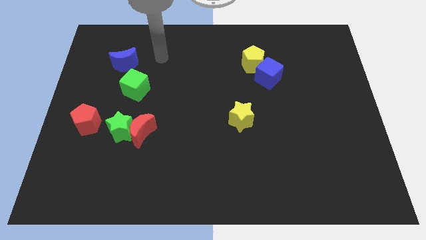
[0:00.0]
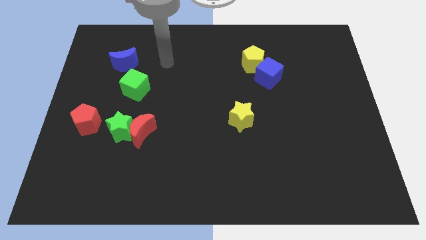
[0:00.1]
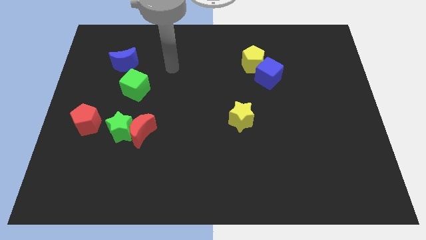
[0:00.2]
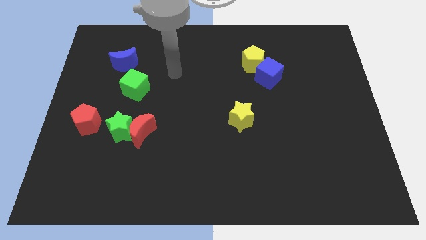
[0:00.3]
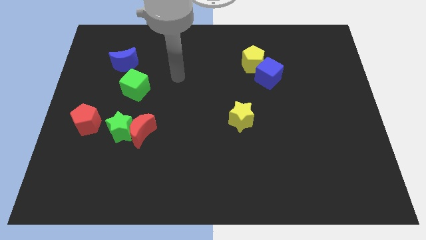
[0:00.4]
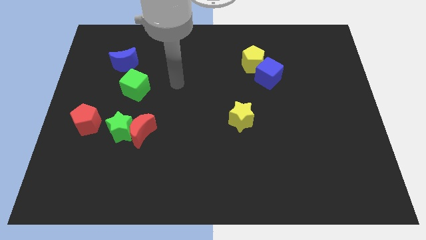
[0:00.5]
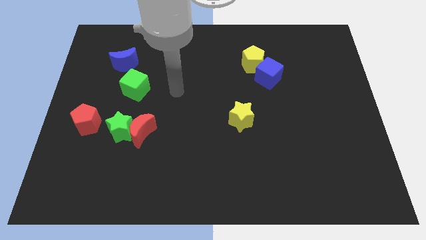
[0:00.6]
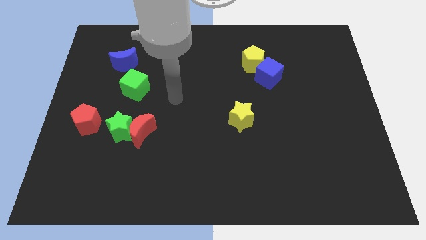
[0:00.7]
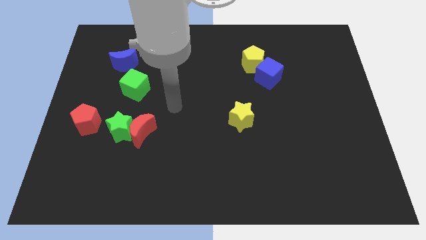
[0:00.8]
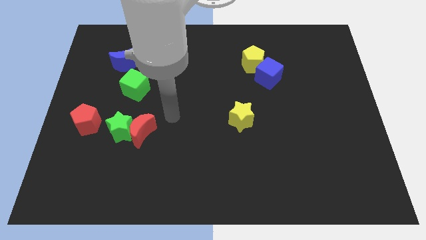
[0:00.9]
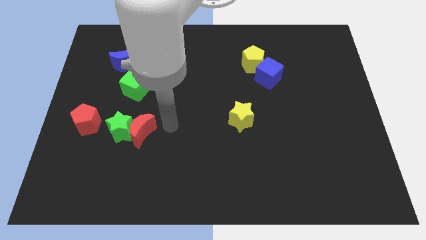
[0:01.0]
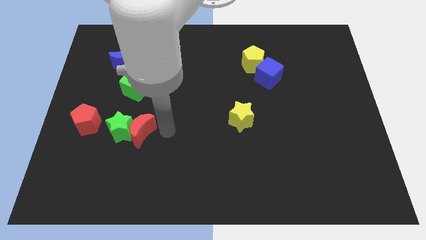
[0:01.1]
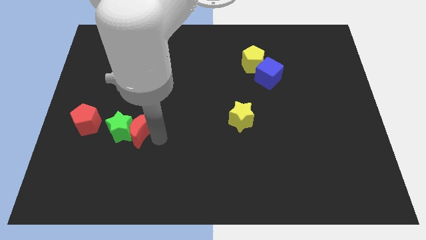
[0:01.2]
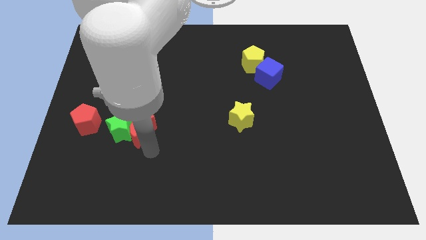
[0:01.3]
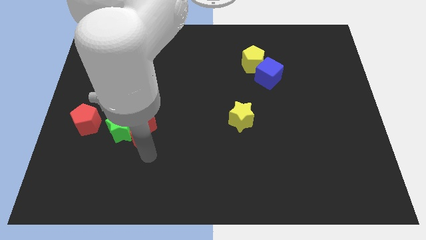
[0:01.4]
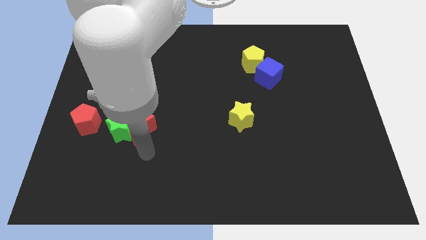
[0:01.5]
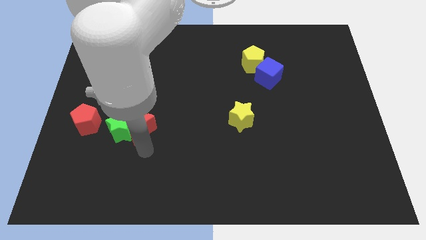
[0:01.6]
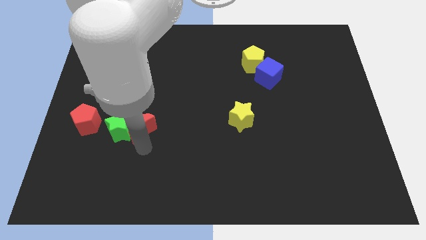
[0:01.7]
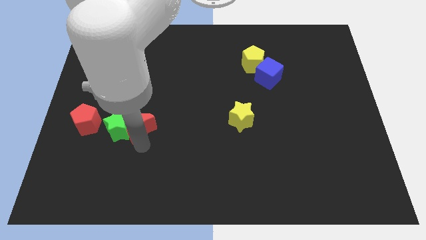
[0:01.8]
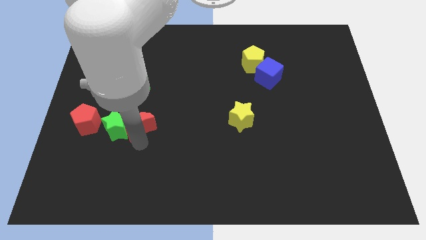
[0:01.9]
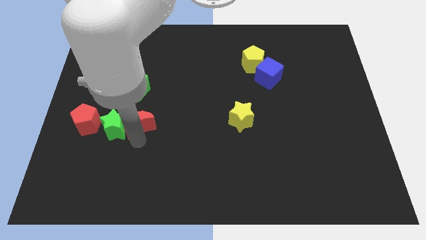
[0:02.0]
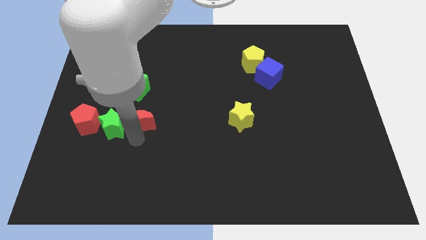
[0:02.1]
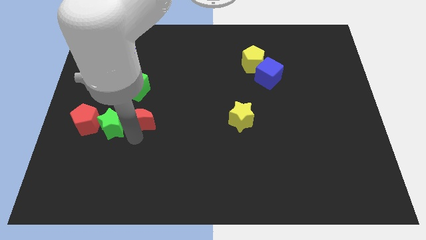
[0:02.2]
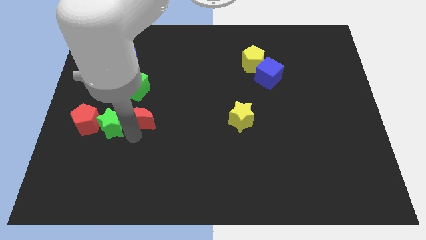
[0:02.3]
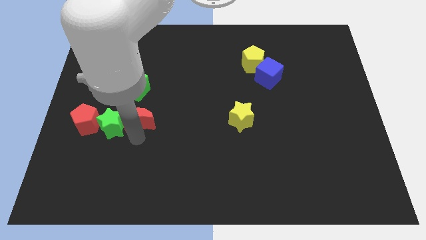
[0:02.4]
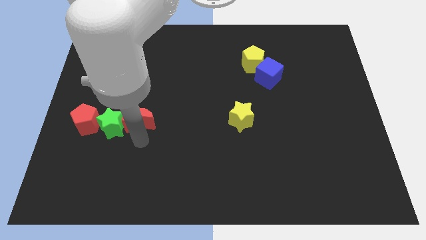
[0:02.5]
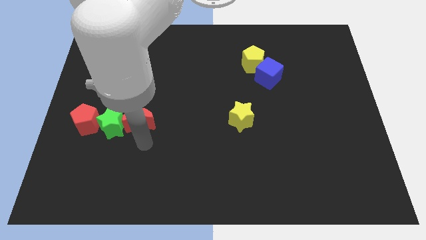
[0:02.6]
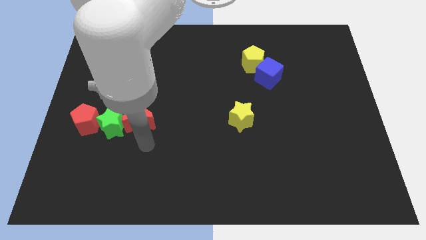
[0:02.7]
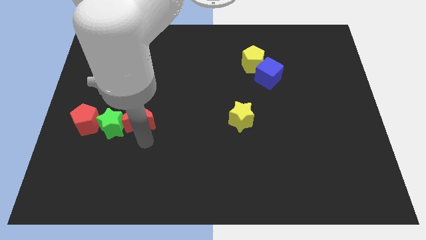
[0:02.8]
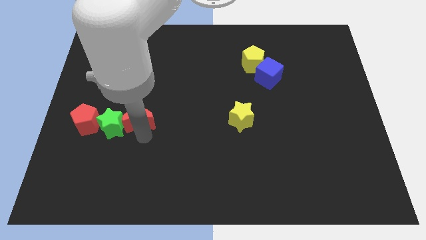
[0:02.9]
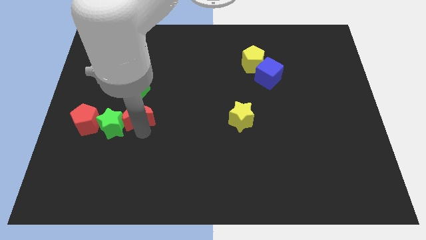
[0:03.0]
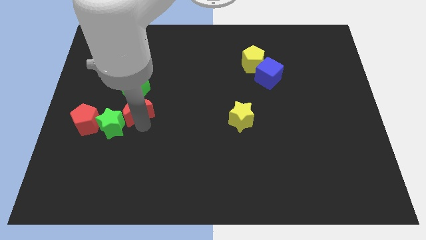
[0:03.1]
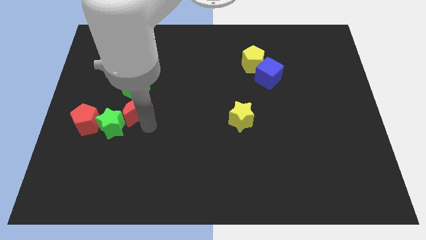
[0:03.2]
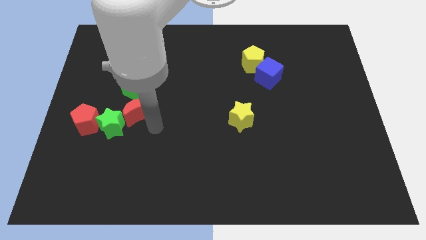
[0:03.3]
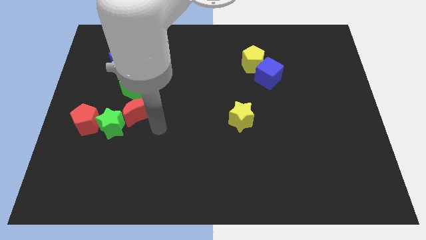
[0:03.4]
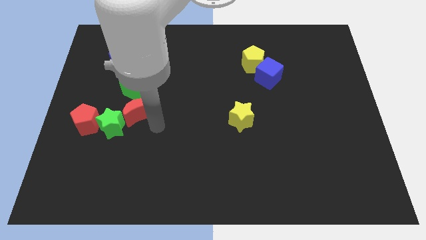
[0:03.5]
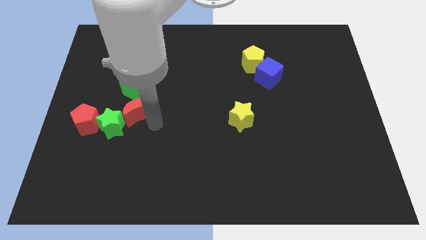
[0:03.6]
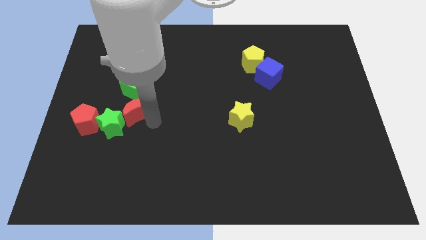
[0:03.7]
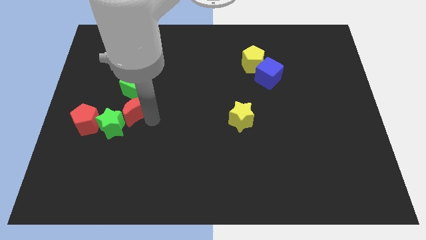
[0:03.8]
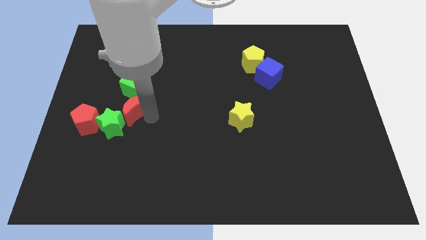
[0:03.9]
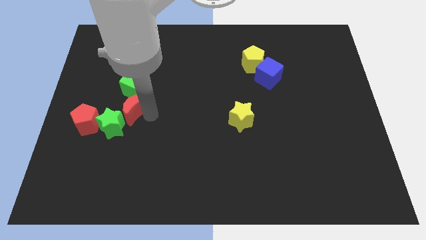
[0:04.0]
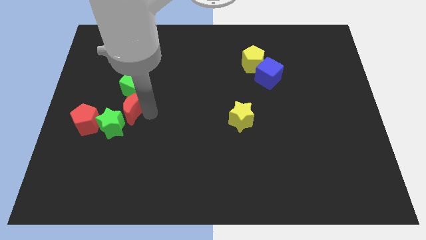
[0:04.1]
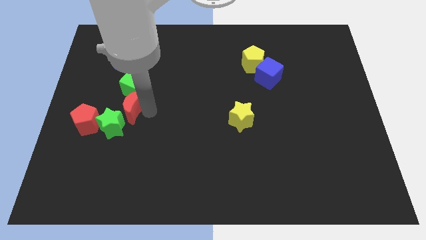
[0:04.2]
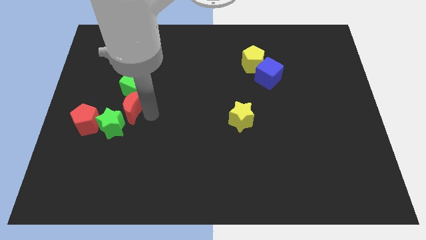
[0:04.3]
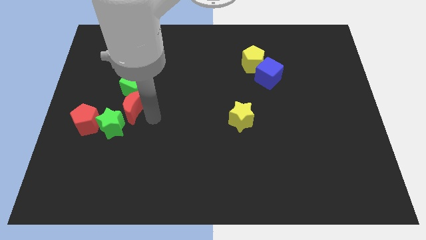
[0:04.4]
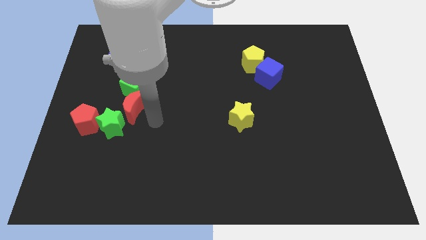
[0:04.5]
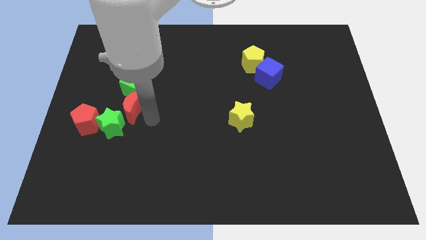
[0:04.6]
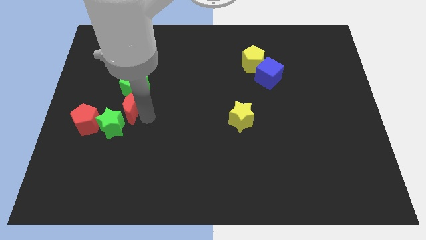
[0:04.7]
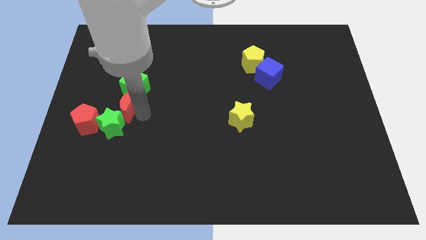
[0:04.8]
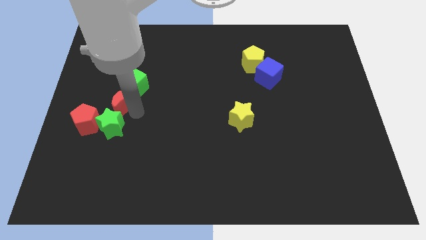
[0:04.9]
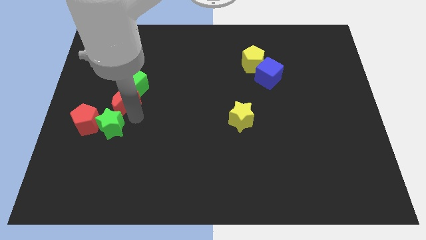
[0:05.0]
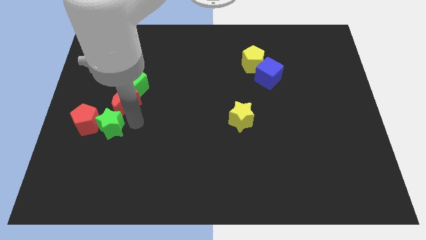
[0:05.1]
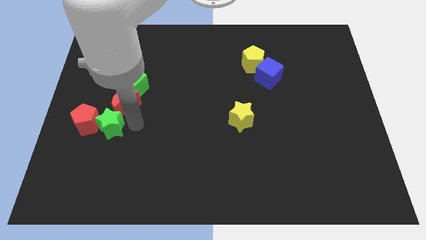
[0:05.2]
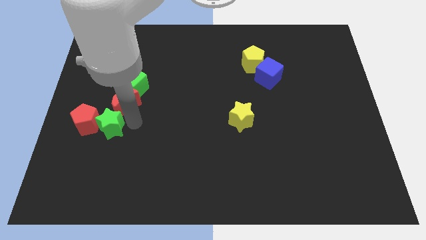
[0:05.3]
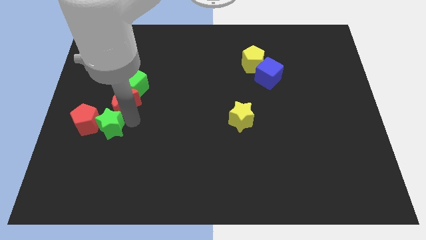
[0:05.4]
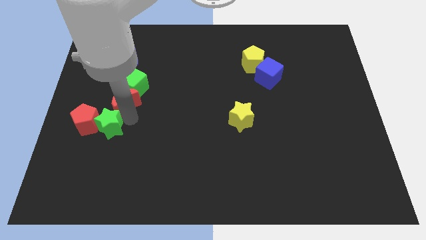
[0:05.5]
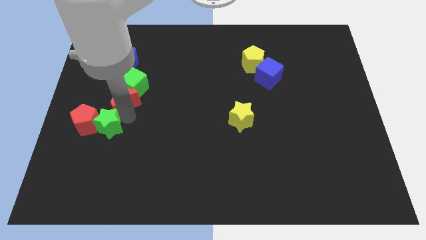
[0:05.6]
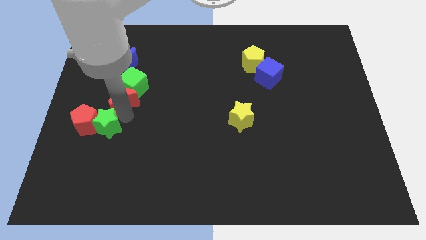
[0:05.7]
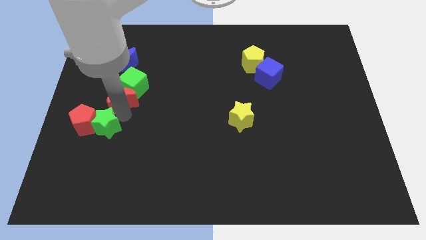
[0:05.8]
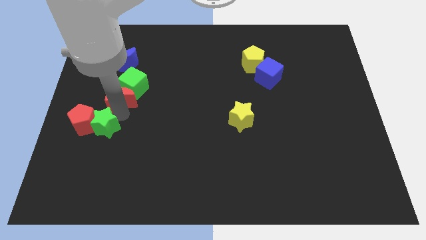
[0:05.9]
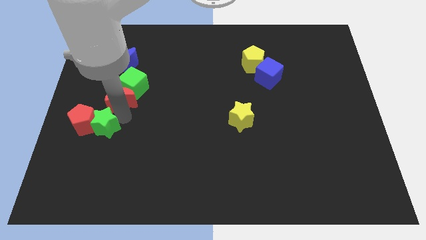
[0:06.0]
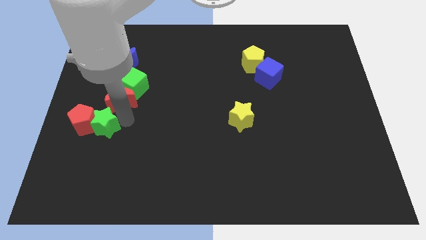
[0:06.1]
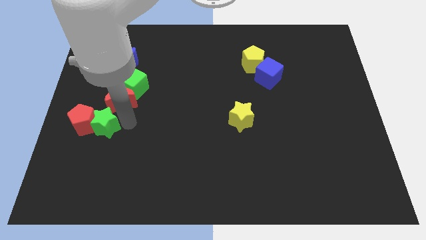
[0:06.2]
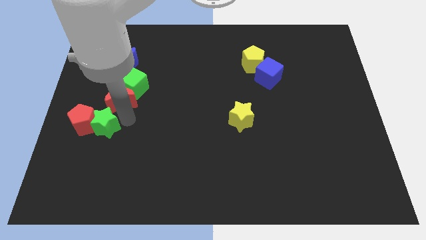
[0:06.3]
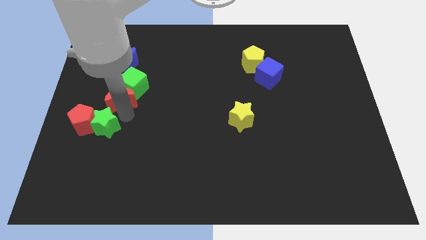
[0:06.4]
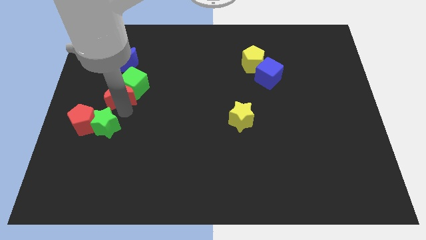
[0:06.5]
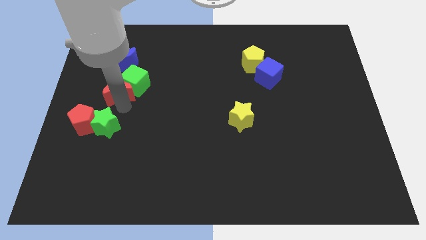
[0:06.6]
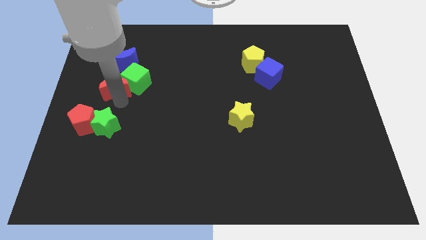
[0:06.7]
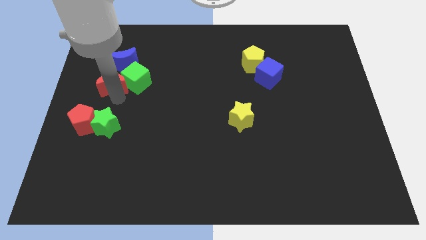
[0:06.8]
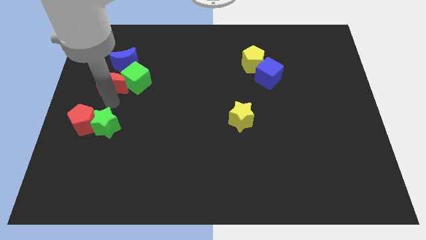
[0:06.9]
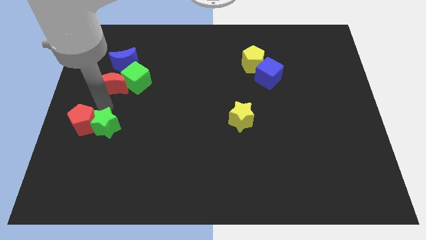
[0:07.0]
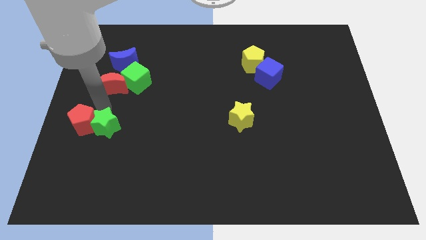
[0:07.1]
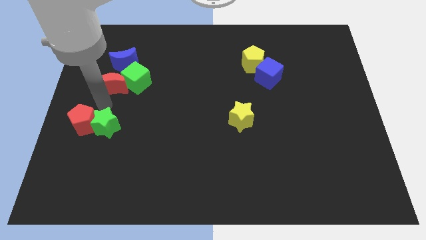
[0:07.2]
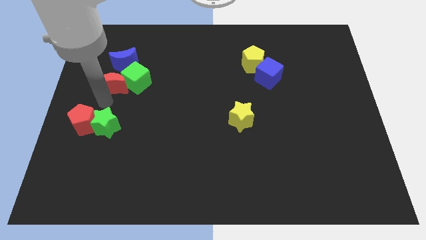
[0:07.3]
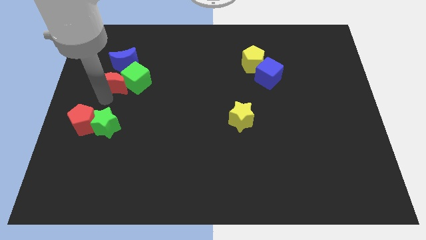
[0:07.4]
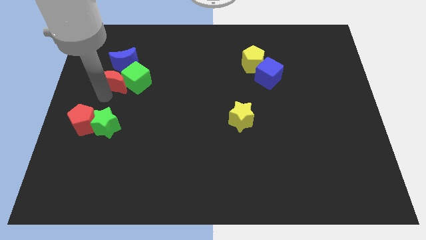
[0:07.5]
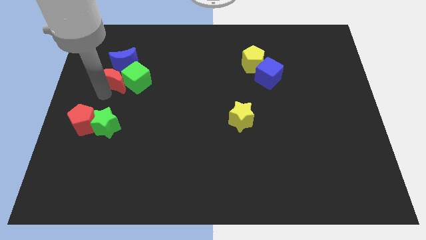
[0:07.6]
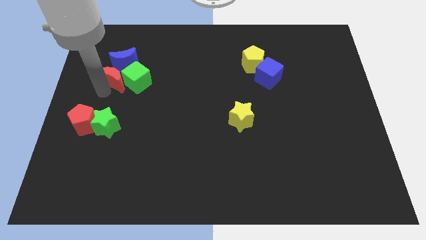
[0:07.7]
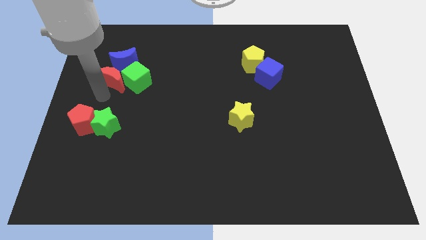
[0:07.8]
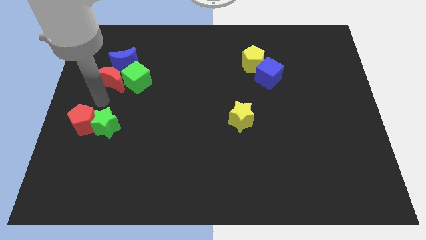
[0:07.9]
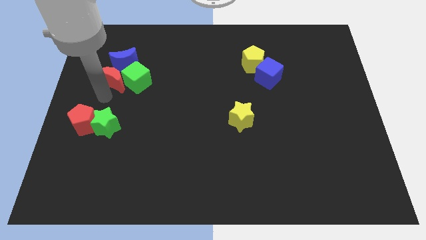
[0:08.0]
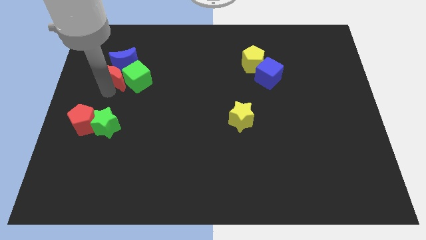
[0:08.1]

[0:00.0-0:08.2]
push the red moon to the blue moon
